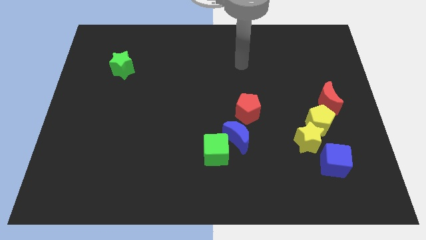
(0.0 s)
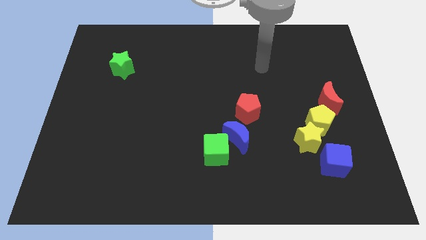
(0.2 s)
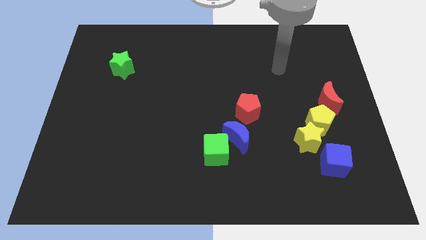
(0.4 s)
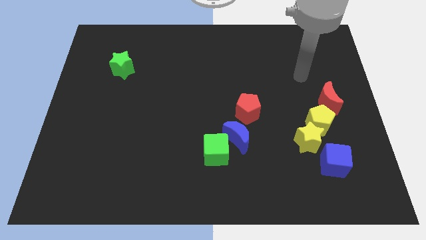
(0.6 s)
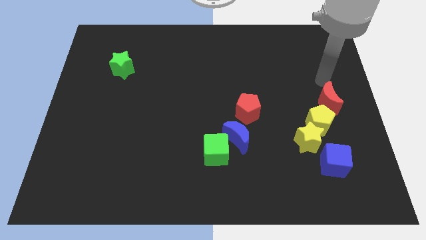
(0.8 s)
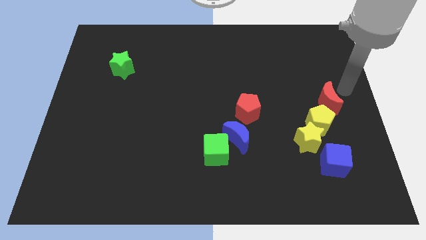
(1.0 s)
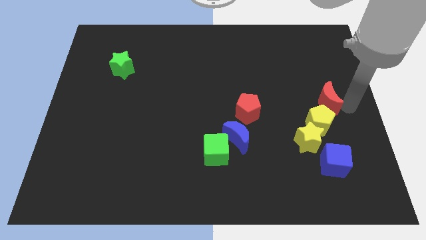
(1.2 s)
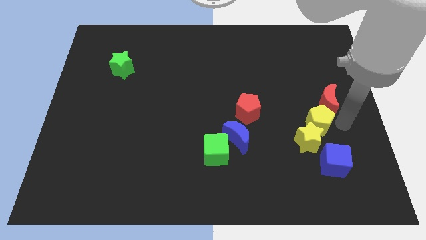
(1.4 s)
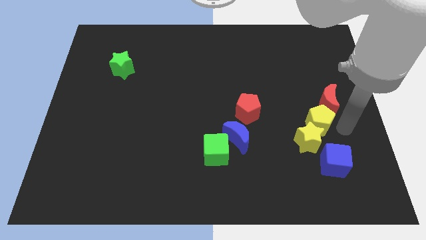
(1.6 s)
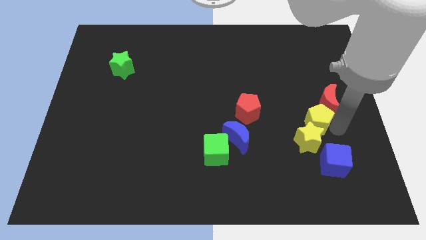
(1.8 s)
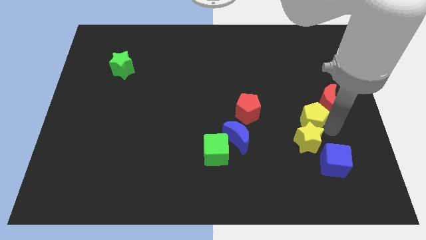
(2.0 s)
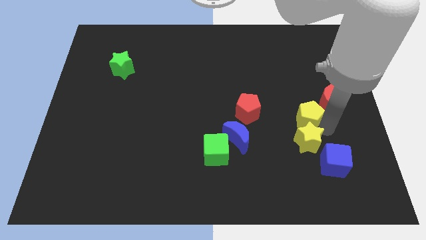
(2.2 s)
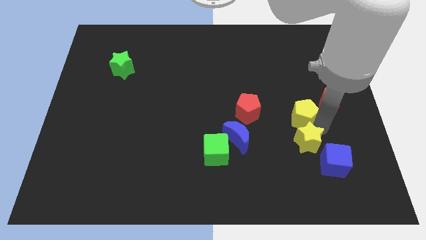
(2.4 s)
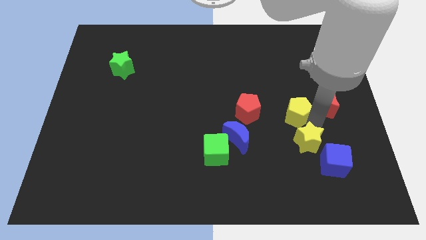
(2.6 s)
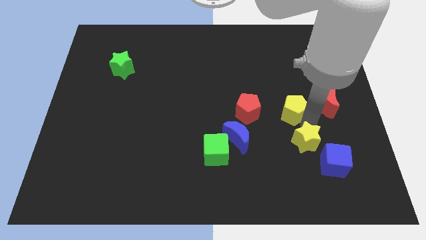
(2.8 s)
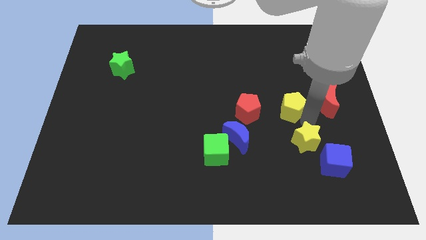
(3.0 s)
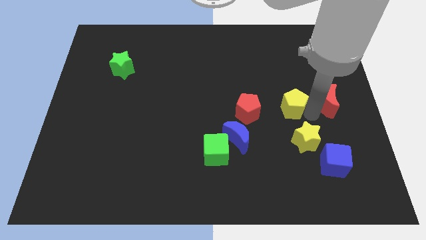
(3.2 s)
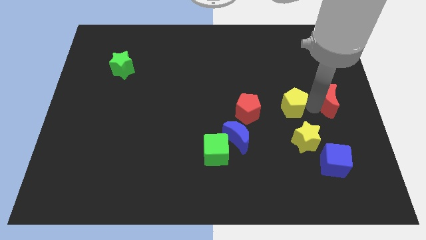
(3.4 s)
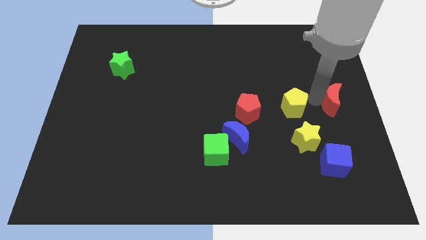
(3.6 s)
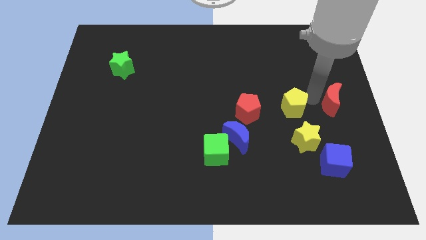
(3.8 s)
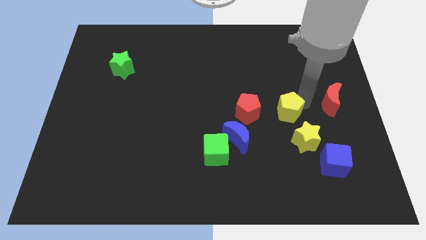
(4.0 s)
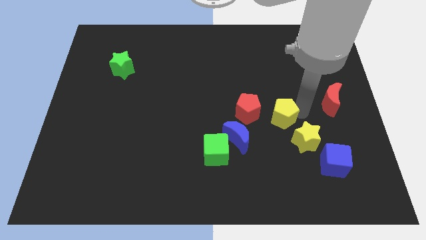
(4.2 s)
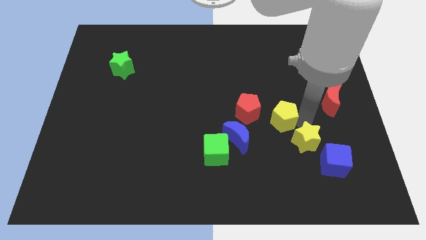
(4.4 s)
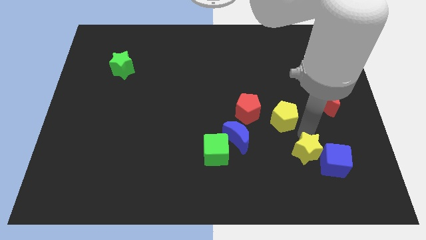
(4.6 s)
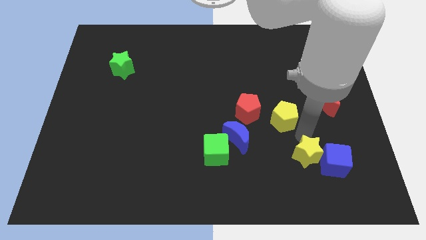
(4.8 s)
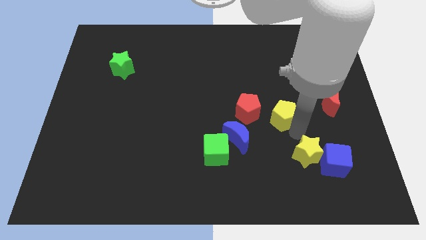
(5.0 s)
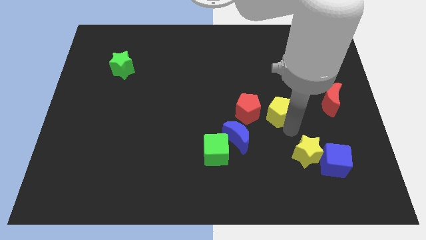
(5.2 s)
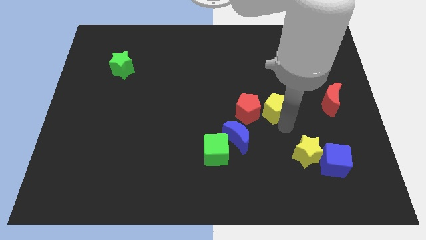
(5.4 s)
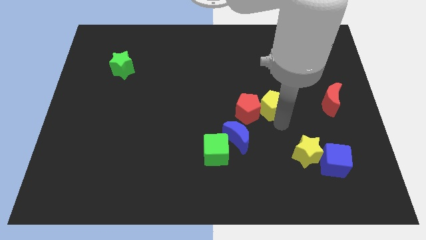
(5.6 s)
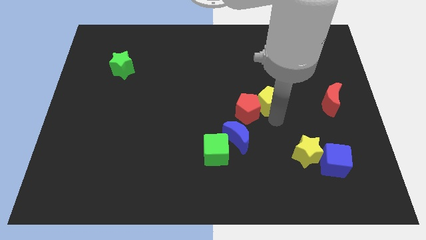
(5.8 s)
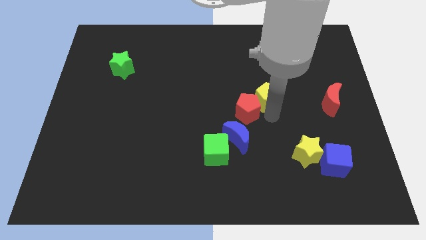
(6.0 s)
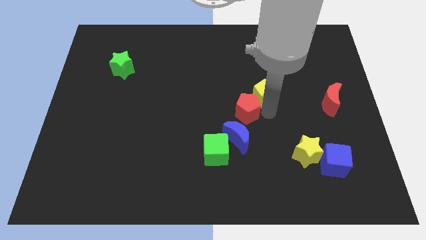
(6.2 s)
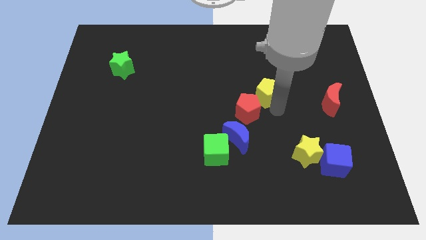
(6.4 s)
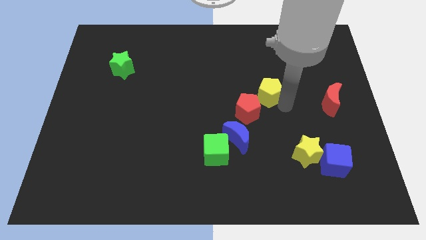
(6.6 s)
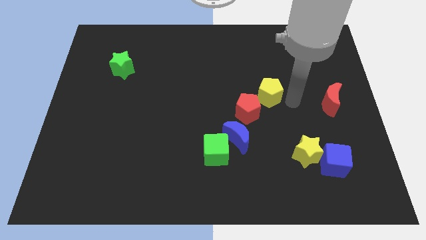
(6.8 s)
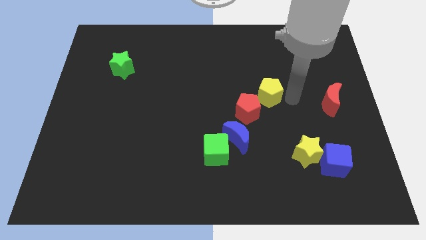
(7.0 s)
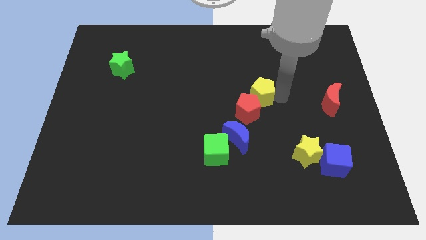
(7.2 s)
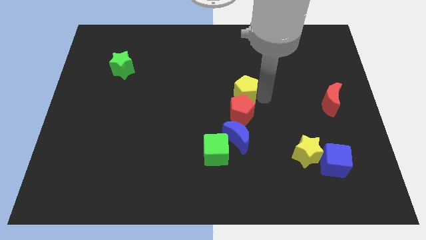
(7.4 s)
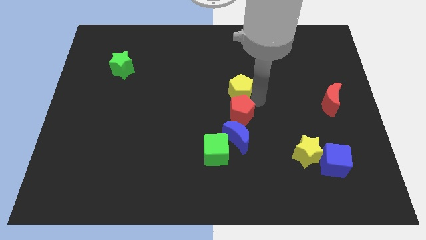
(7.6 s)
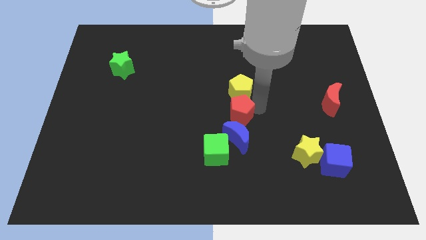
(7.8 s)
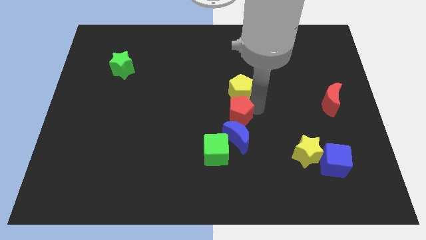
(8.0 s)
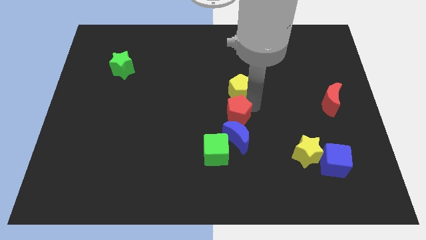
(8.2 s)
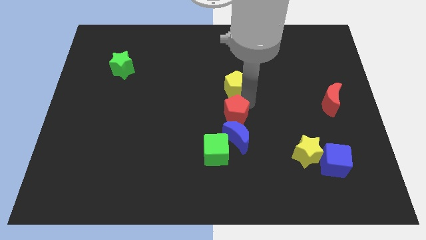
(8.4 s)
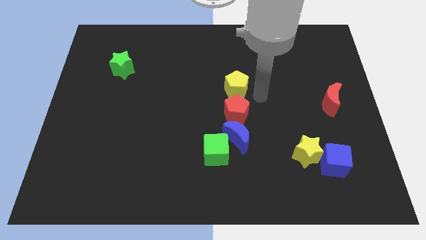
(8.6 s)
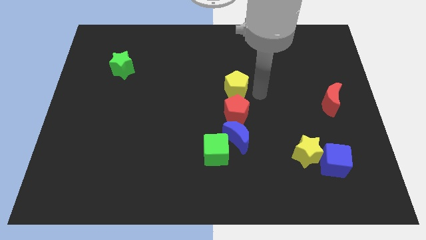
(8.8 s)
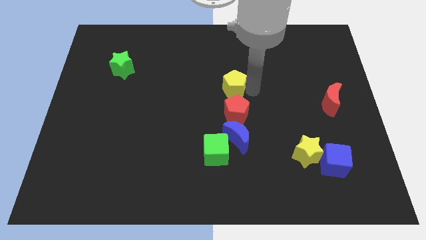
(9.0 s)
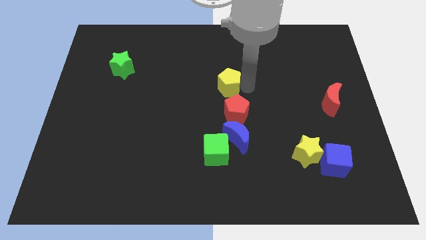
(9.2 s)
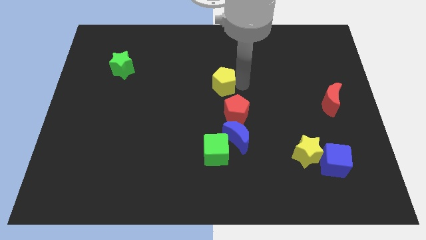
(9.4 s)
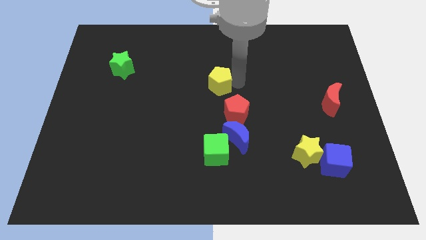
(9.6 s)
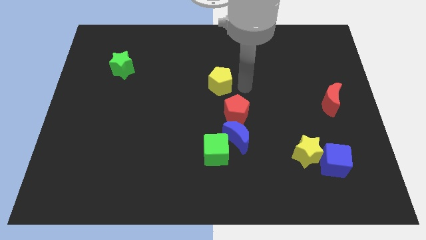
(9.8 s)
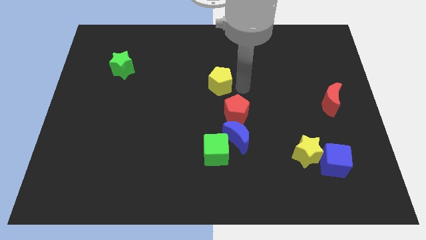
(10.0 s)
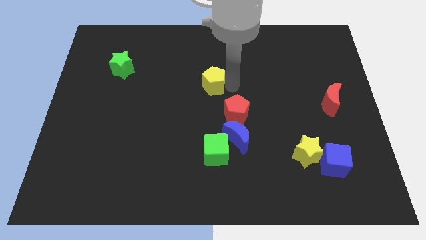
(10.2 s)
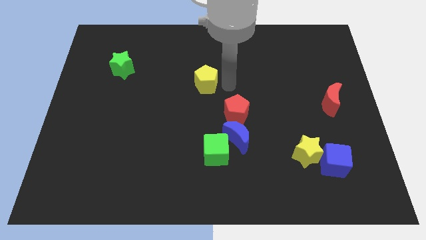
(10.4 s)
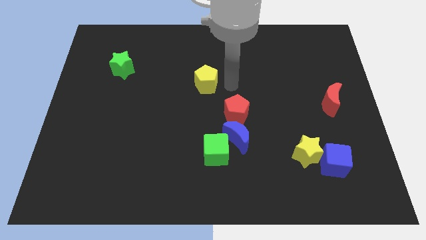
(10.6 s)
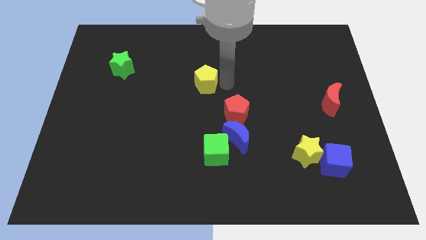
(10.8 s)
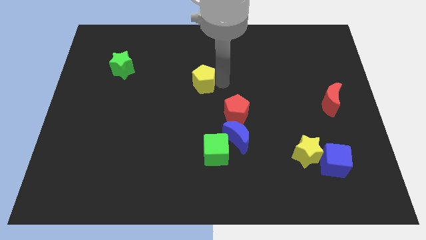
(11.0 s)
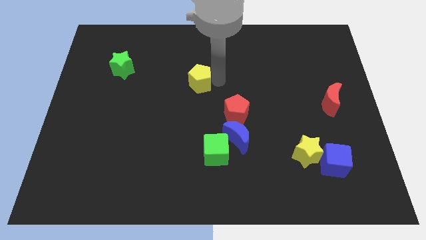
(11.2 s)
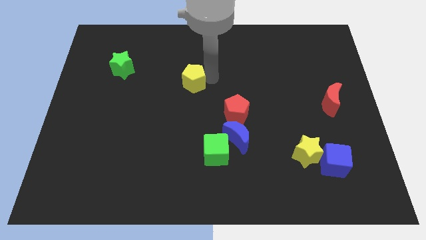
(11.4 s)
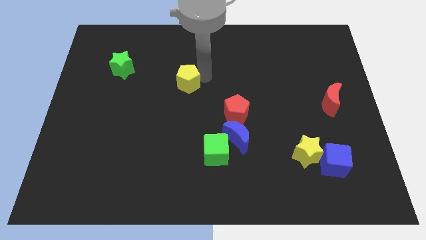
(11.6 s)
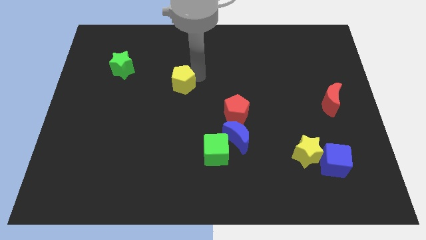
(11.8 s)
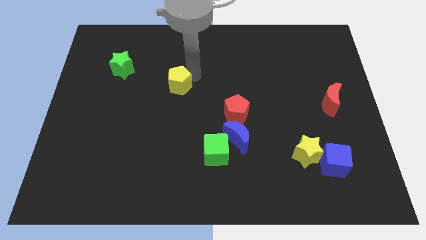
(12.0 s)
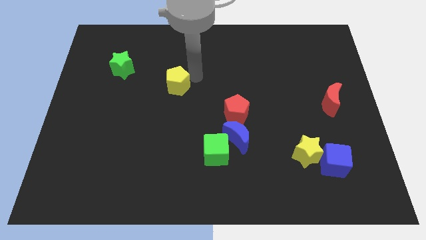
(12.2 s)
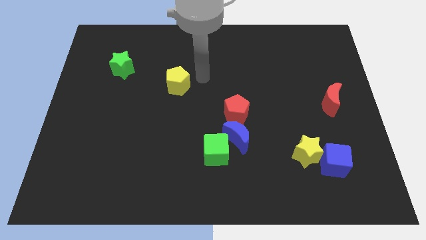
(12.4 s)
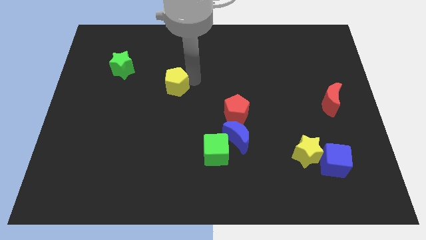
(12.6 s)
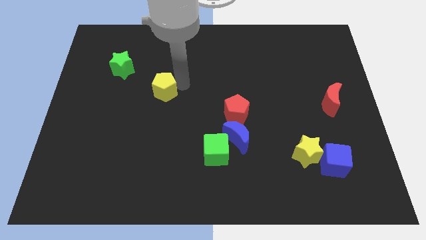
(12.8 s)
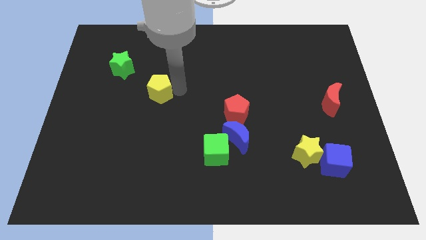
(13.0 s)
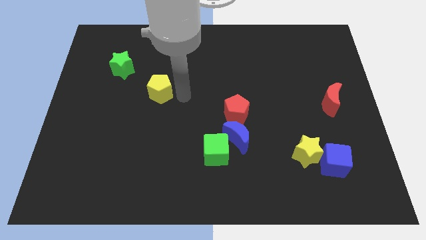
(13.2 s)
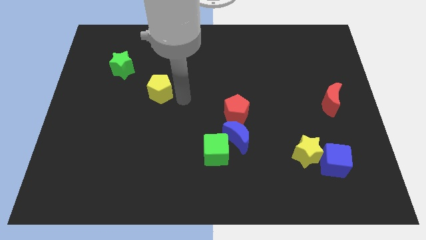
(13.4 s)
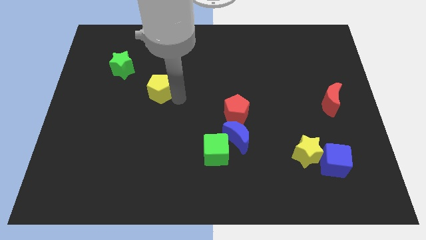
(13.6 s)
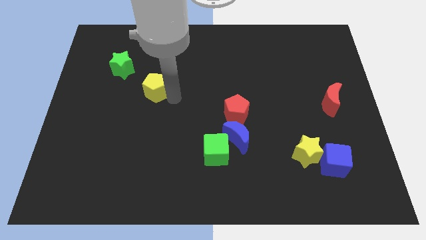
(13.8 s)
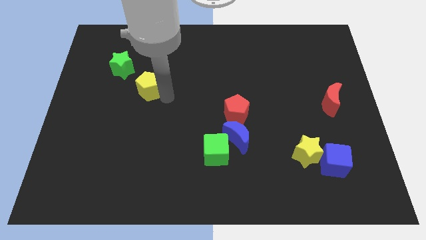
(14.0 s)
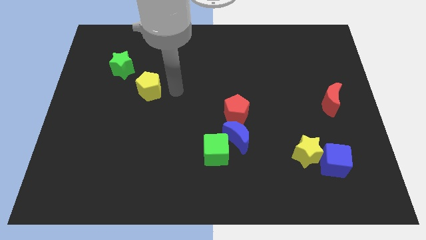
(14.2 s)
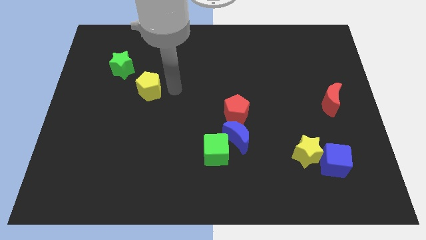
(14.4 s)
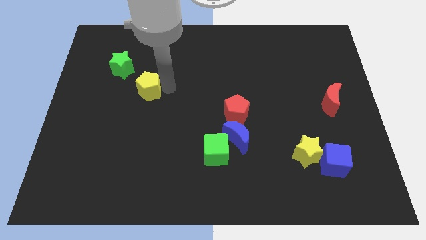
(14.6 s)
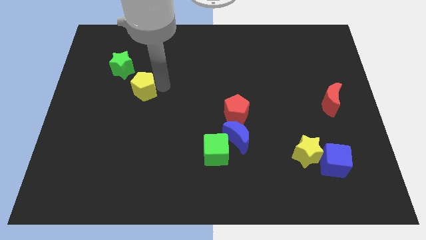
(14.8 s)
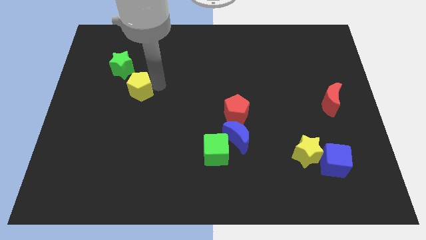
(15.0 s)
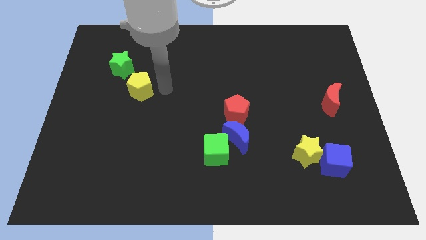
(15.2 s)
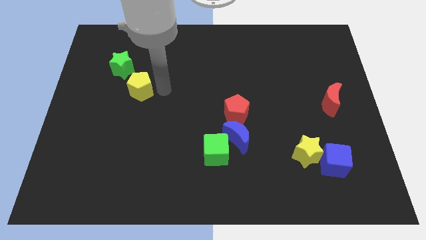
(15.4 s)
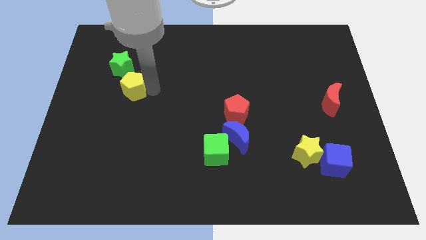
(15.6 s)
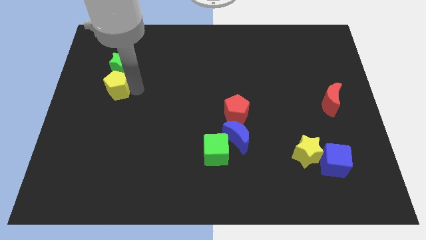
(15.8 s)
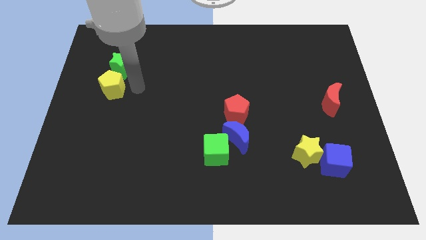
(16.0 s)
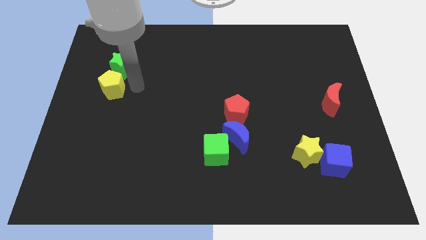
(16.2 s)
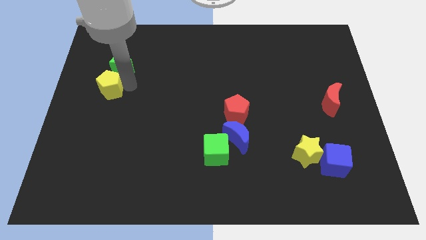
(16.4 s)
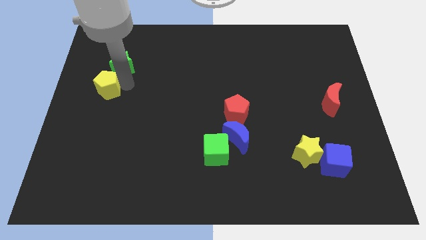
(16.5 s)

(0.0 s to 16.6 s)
put the yellow pentagon to the left side of the board
